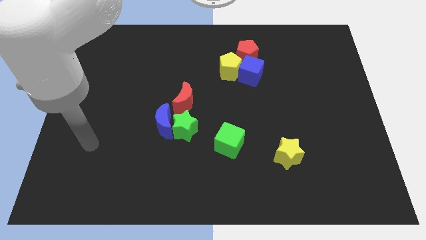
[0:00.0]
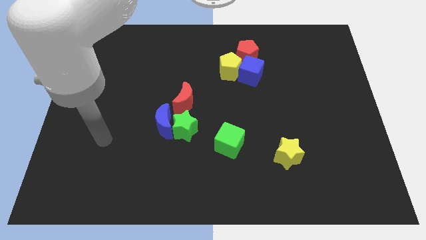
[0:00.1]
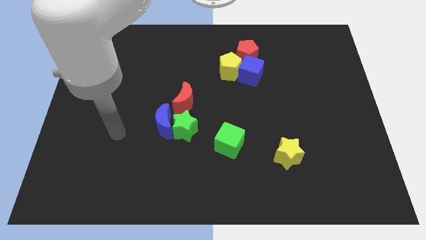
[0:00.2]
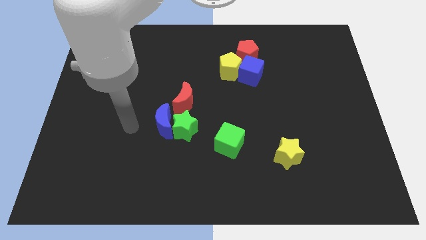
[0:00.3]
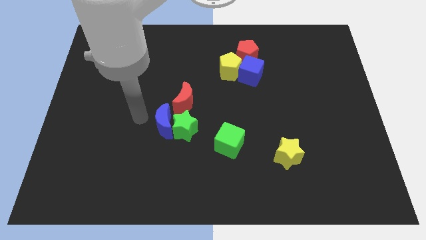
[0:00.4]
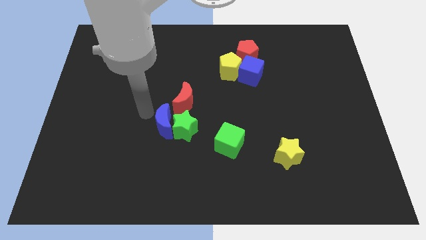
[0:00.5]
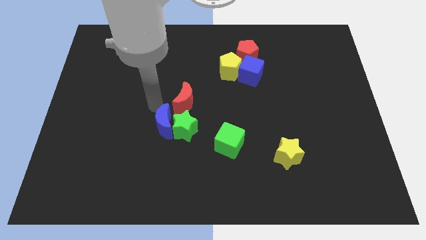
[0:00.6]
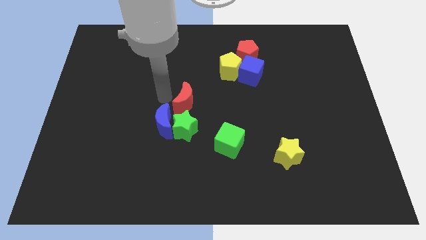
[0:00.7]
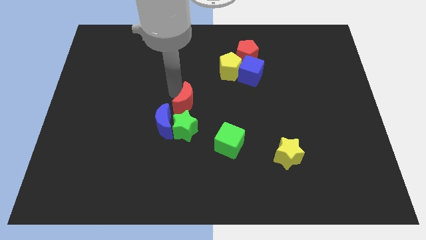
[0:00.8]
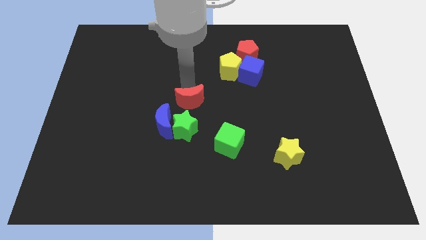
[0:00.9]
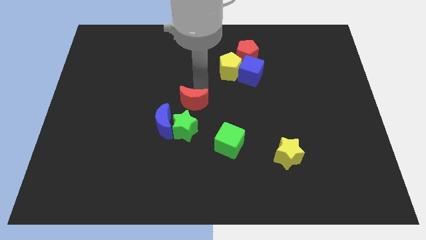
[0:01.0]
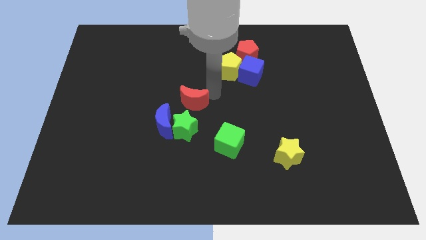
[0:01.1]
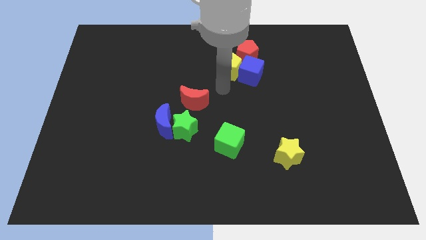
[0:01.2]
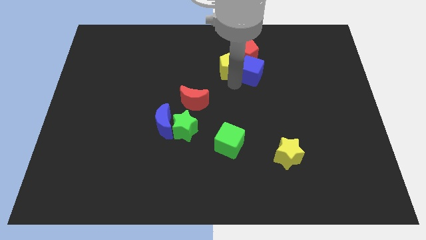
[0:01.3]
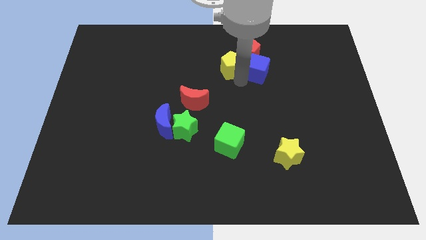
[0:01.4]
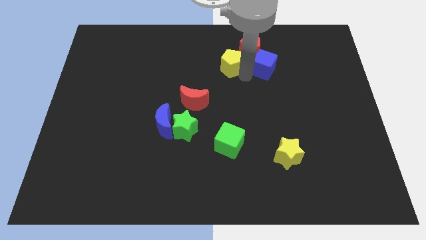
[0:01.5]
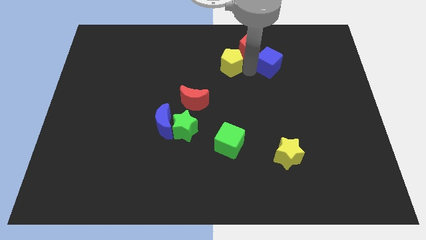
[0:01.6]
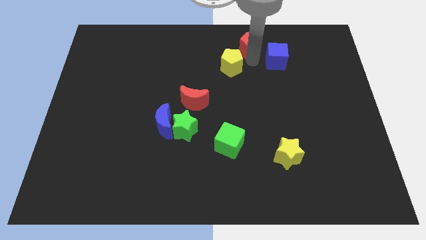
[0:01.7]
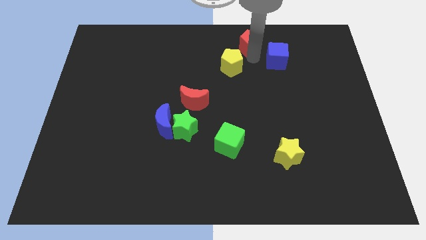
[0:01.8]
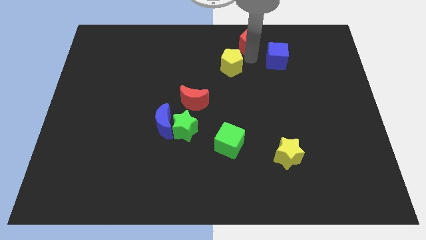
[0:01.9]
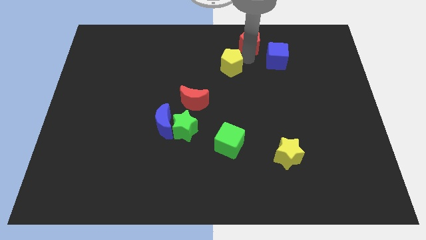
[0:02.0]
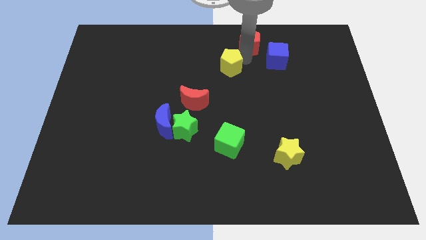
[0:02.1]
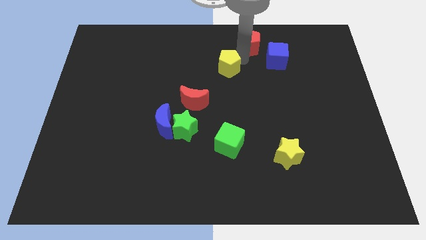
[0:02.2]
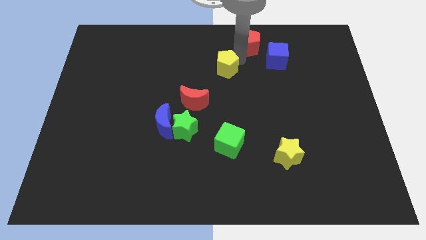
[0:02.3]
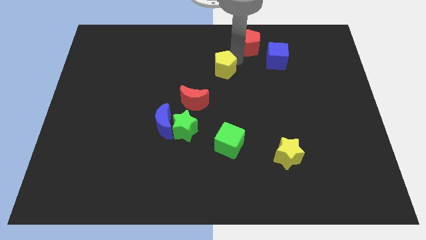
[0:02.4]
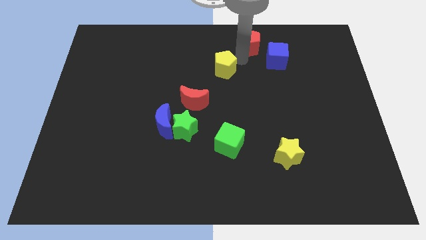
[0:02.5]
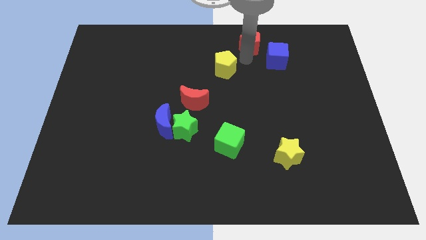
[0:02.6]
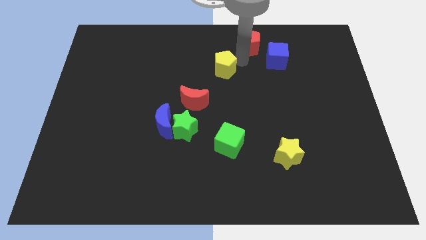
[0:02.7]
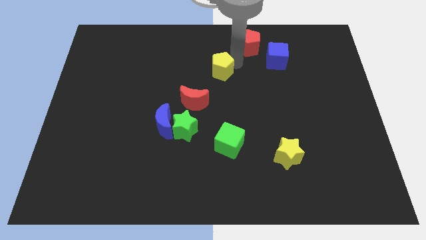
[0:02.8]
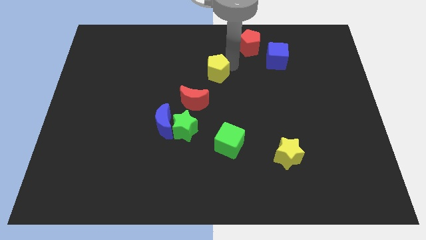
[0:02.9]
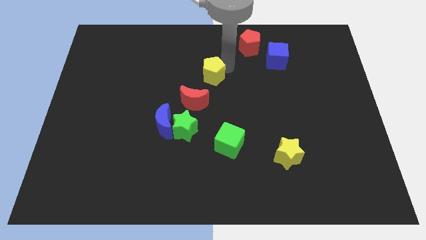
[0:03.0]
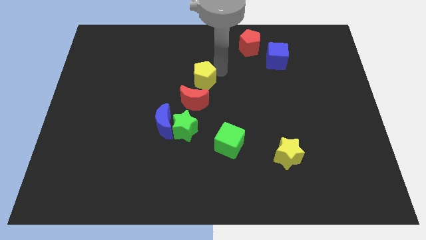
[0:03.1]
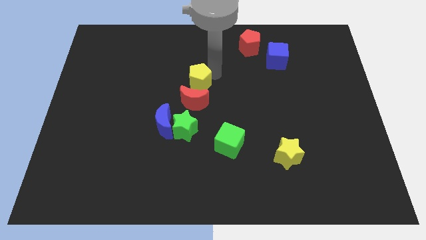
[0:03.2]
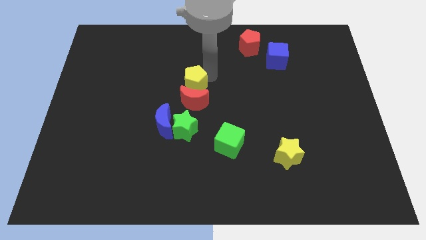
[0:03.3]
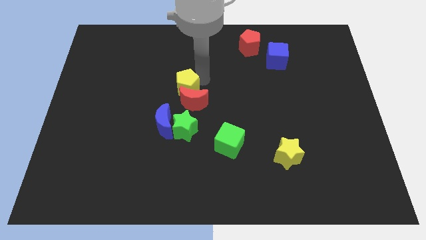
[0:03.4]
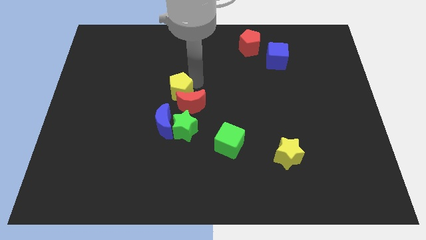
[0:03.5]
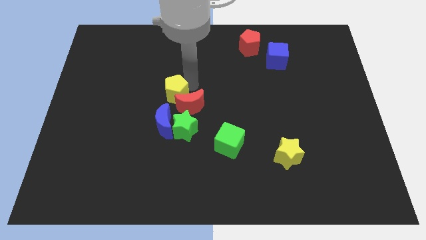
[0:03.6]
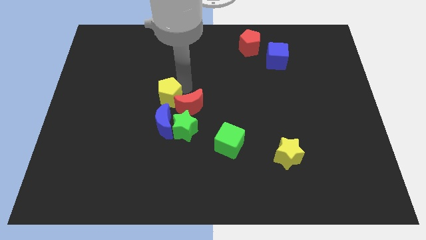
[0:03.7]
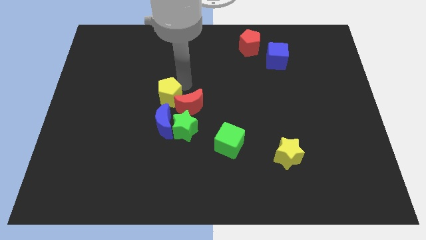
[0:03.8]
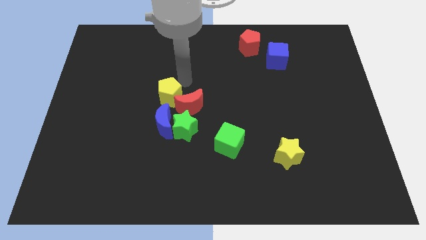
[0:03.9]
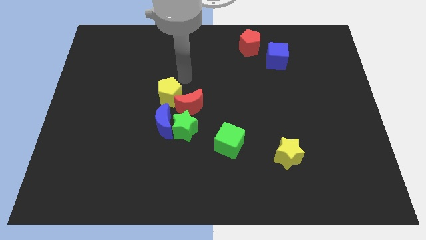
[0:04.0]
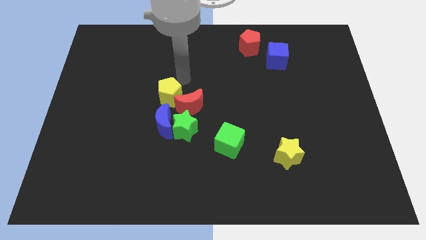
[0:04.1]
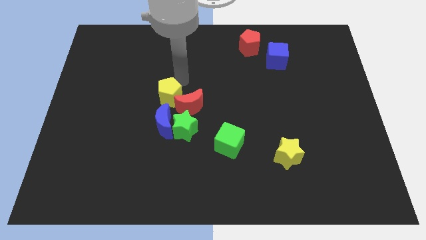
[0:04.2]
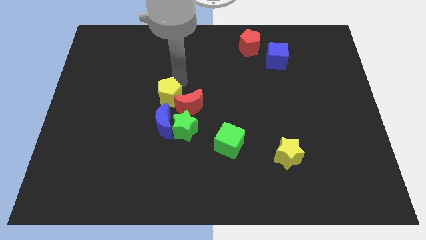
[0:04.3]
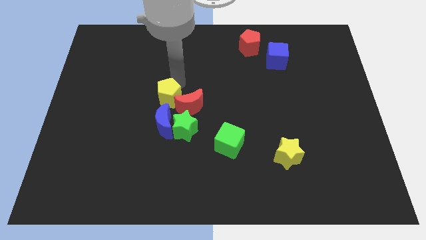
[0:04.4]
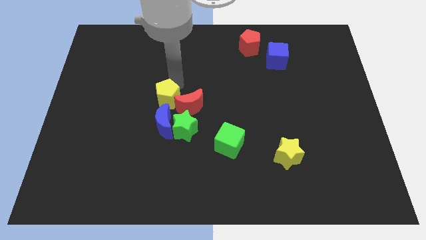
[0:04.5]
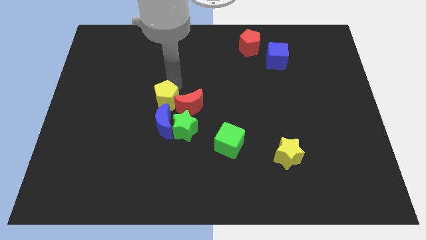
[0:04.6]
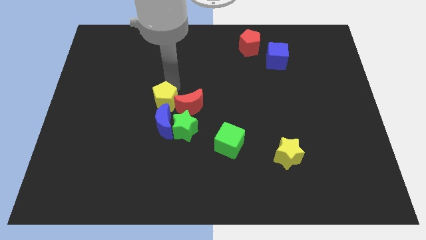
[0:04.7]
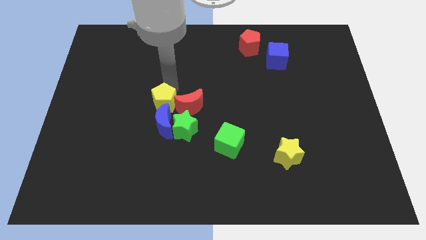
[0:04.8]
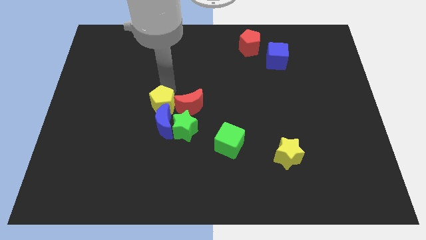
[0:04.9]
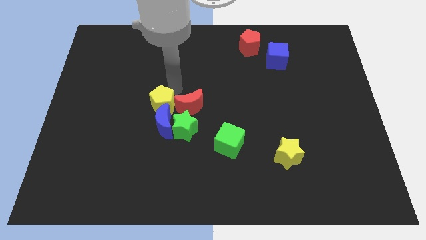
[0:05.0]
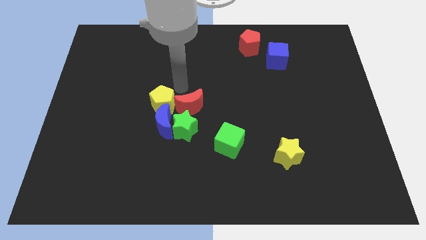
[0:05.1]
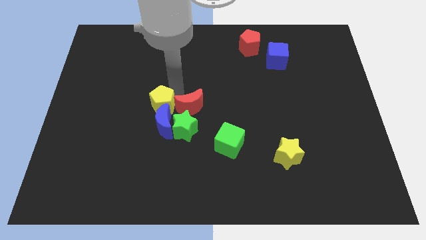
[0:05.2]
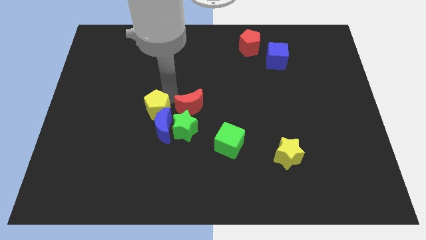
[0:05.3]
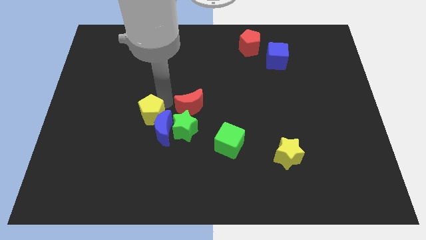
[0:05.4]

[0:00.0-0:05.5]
move the yellow pentagon left of the green star

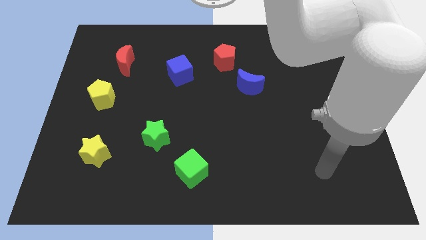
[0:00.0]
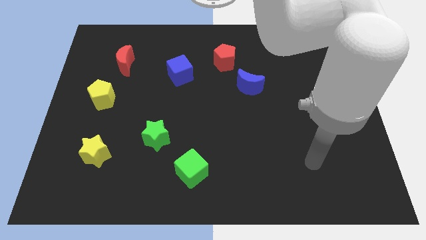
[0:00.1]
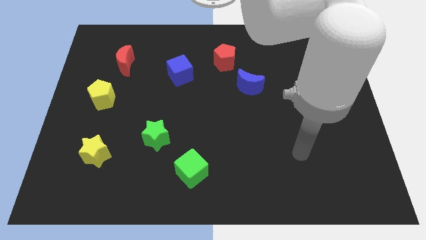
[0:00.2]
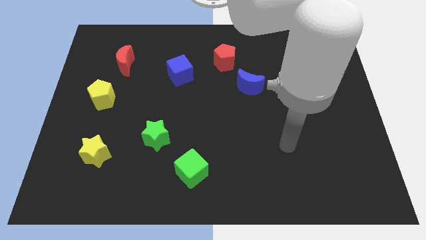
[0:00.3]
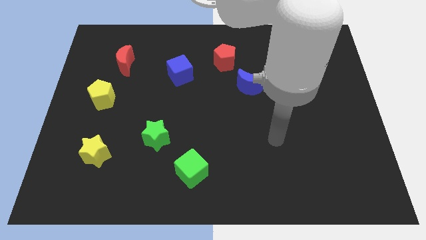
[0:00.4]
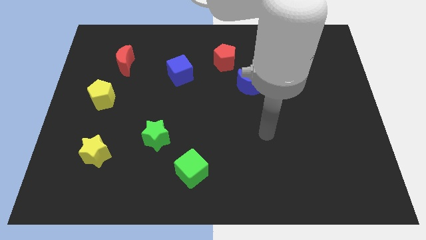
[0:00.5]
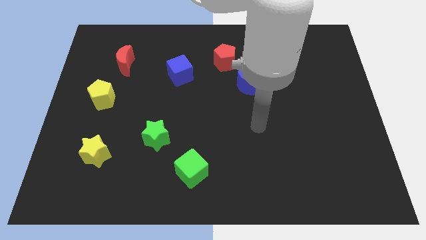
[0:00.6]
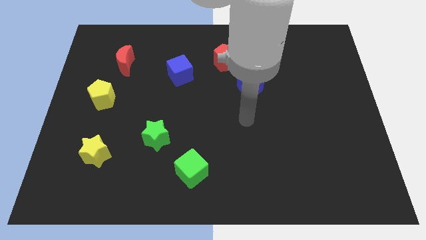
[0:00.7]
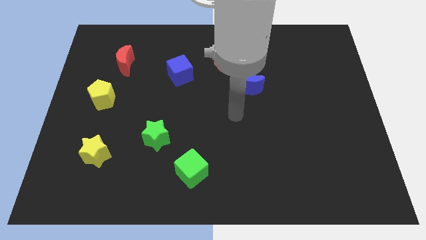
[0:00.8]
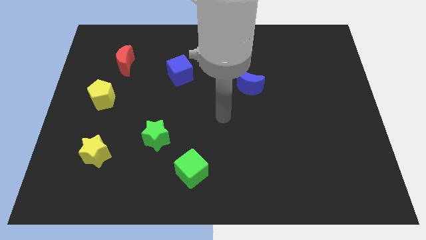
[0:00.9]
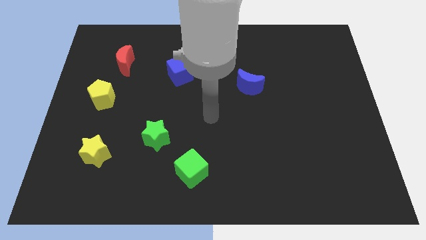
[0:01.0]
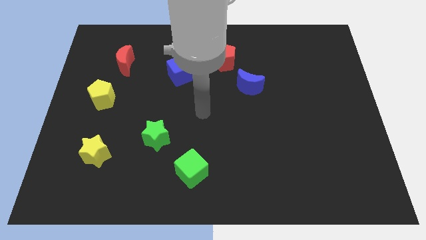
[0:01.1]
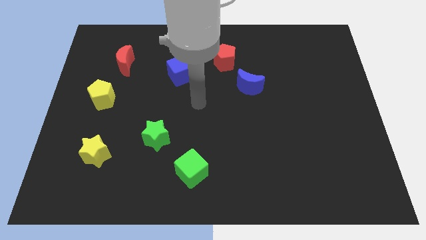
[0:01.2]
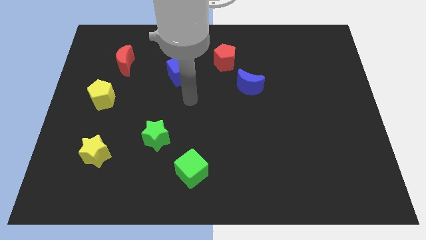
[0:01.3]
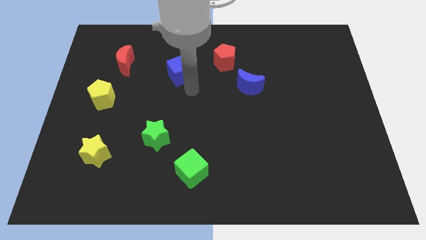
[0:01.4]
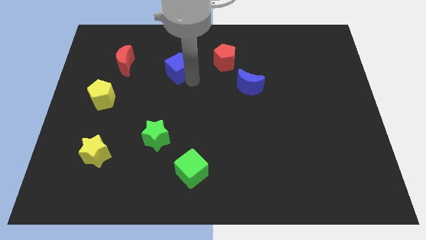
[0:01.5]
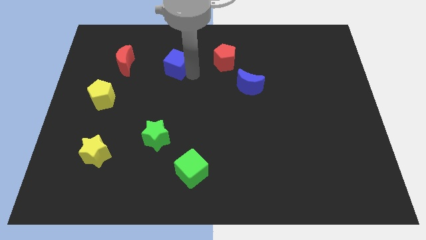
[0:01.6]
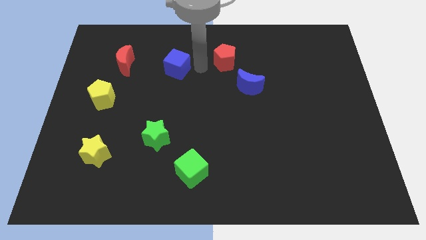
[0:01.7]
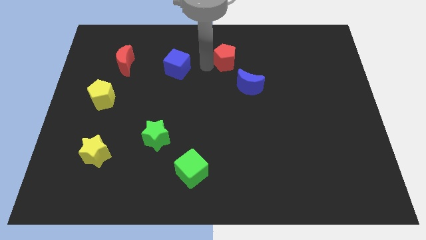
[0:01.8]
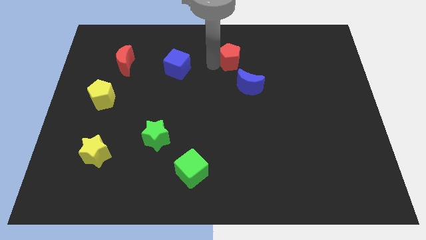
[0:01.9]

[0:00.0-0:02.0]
slide the red pentagon to the top of the blue moon

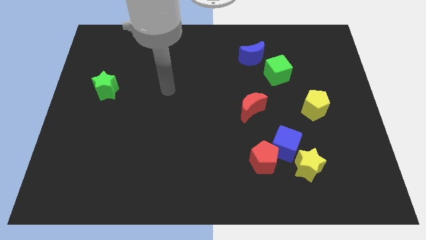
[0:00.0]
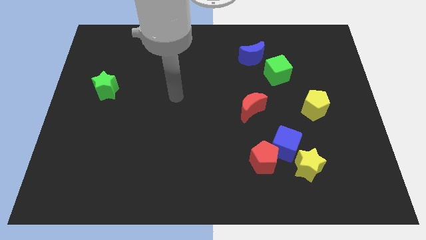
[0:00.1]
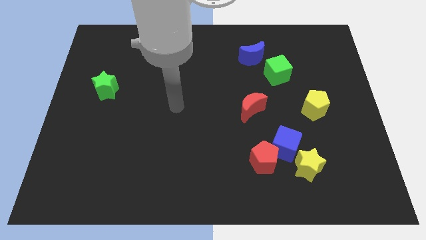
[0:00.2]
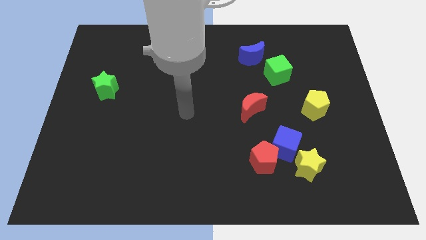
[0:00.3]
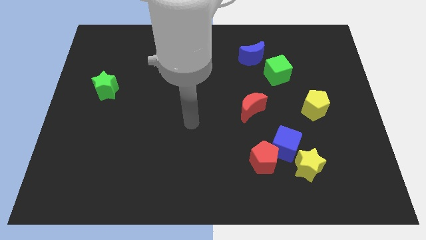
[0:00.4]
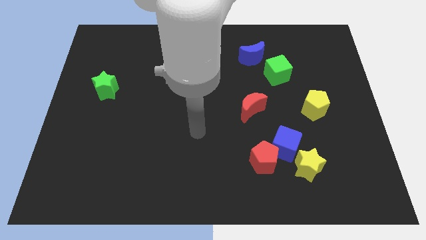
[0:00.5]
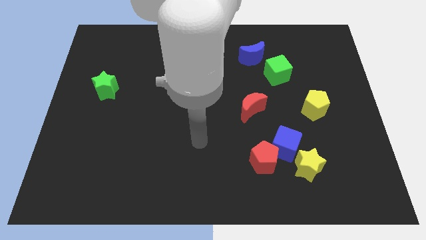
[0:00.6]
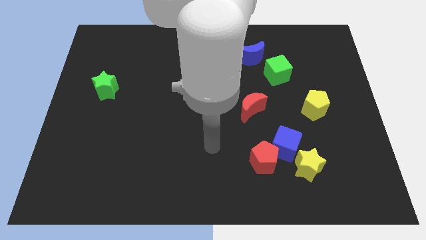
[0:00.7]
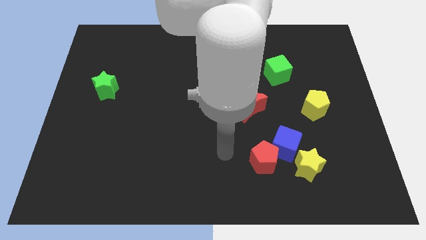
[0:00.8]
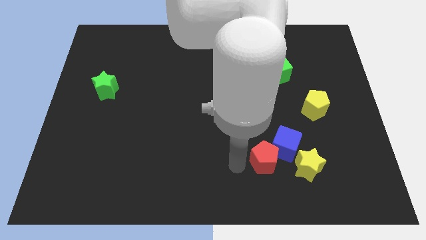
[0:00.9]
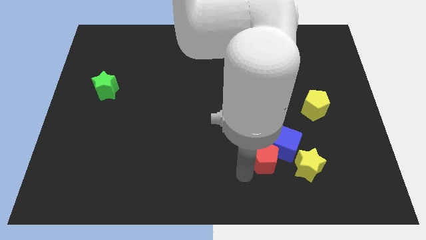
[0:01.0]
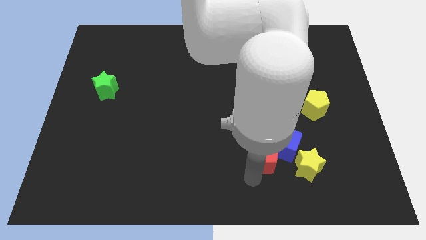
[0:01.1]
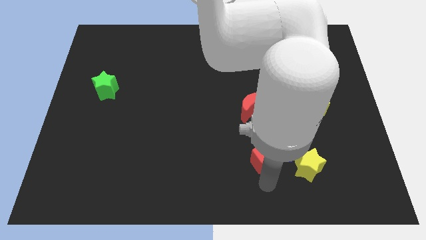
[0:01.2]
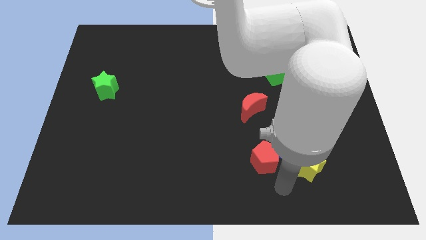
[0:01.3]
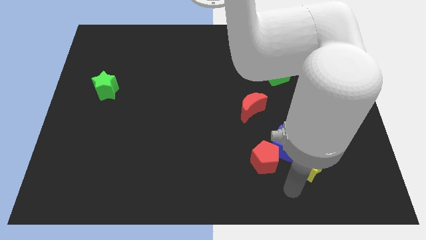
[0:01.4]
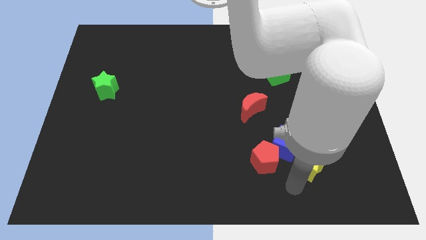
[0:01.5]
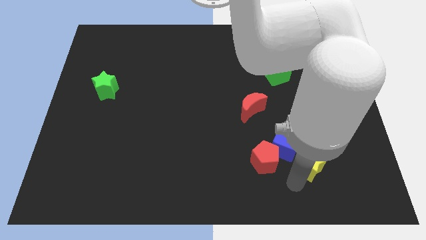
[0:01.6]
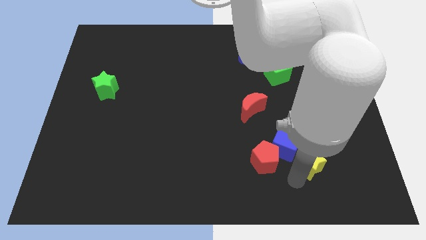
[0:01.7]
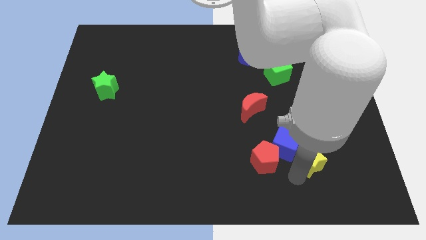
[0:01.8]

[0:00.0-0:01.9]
put the yellow star to the bottom side of the yellow pentagon
